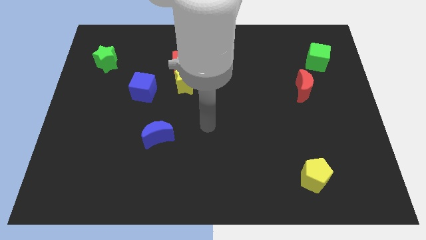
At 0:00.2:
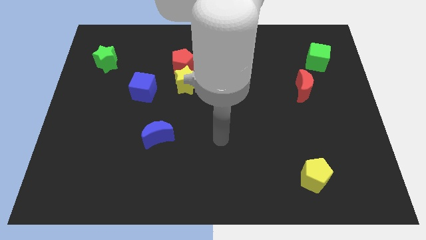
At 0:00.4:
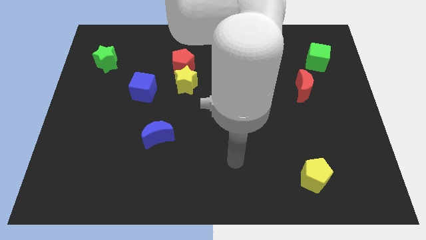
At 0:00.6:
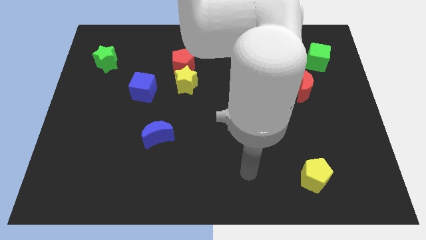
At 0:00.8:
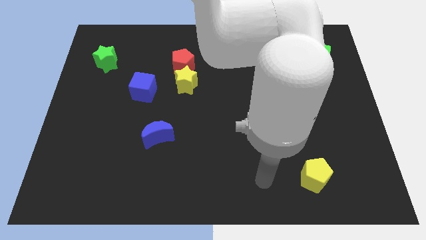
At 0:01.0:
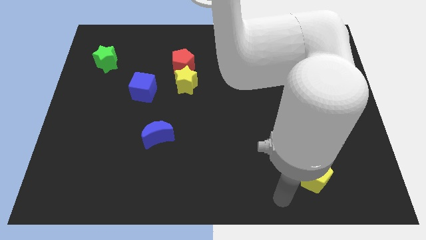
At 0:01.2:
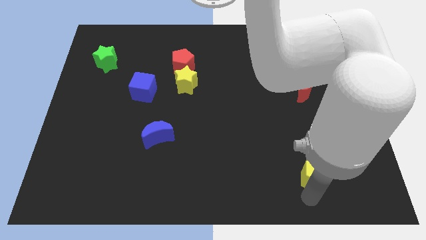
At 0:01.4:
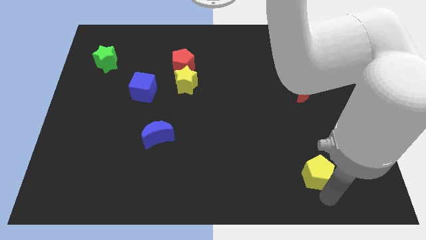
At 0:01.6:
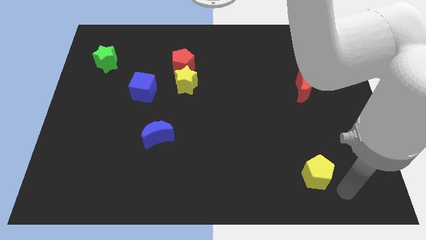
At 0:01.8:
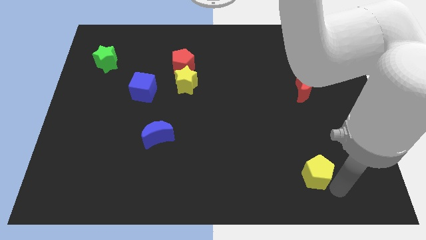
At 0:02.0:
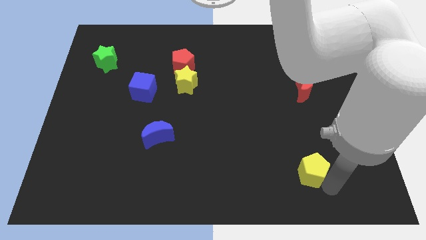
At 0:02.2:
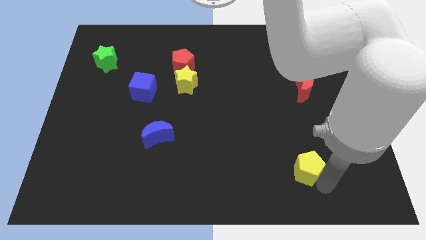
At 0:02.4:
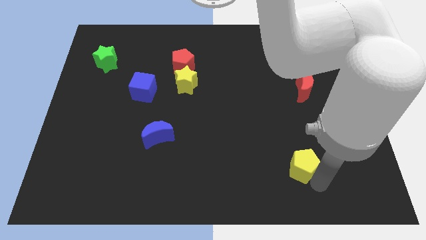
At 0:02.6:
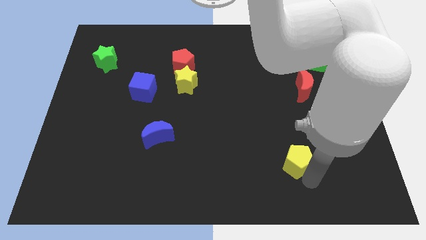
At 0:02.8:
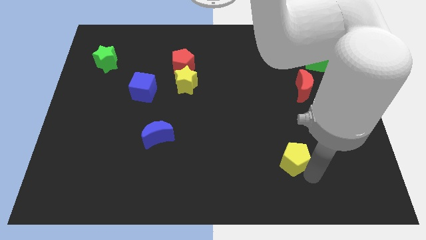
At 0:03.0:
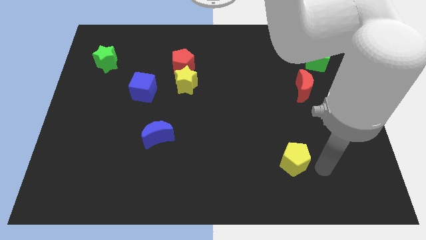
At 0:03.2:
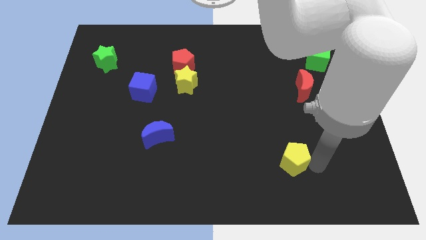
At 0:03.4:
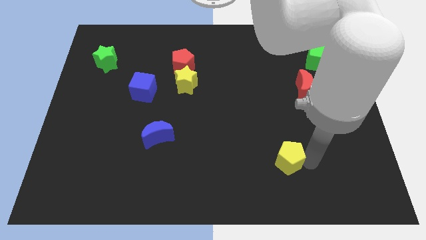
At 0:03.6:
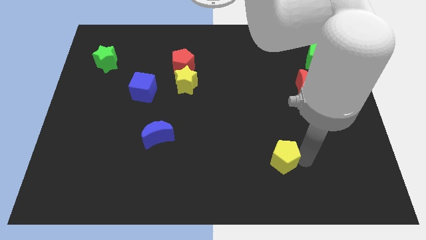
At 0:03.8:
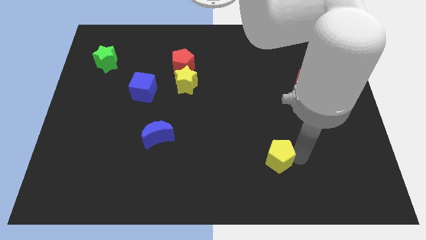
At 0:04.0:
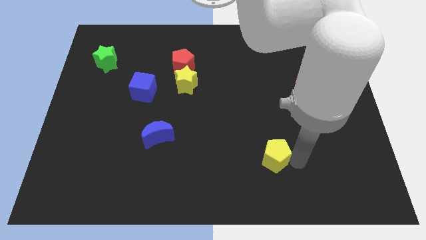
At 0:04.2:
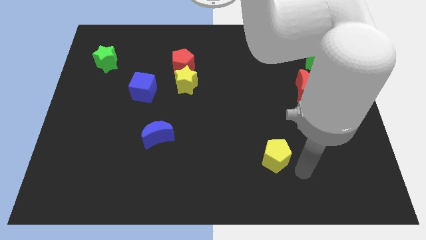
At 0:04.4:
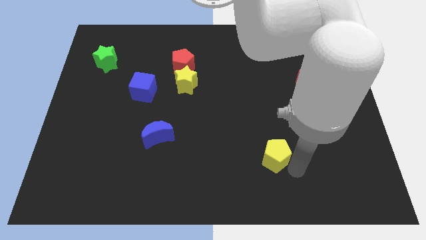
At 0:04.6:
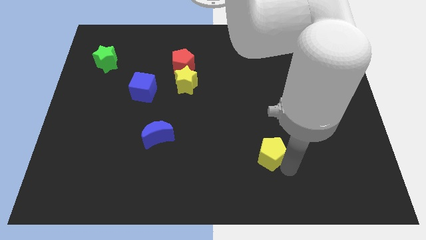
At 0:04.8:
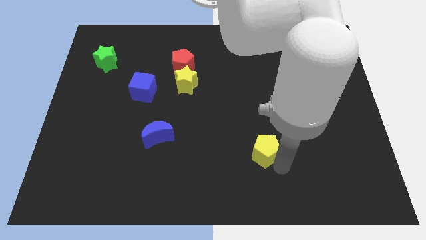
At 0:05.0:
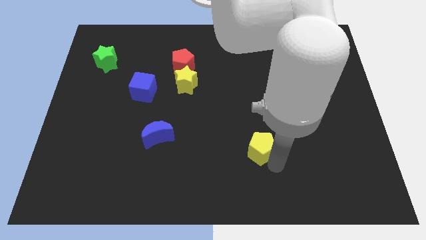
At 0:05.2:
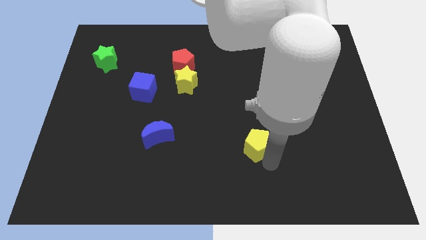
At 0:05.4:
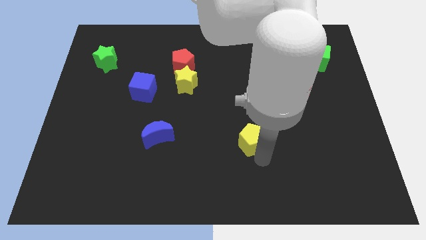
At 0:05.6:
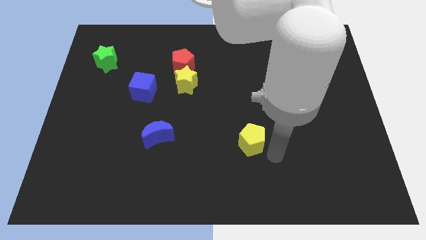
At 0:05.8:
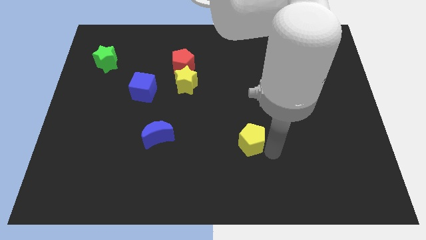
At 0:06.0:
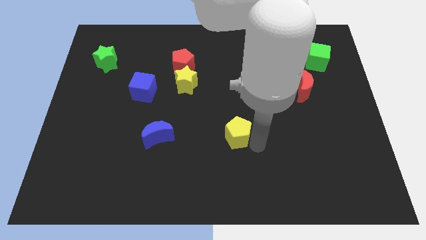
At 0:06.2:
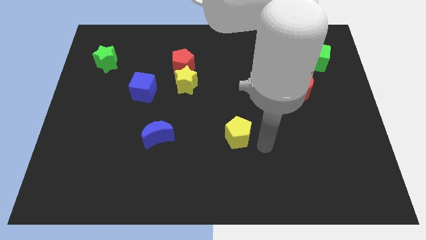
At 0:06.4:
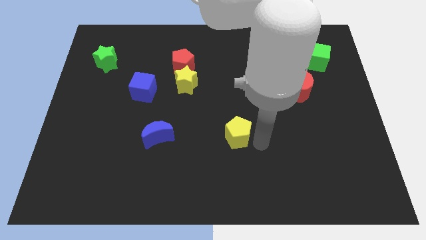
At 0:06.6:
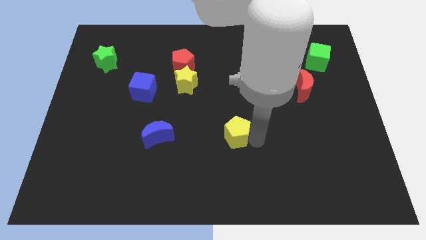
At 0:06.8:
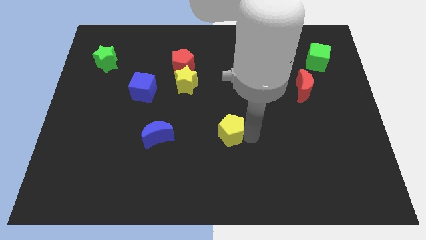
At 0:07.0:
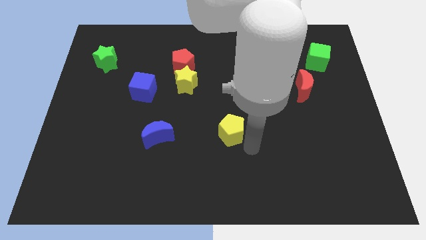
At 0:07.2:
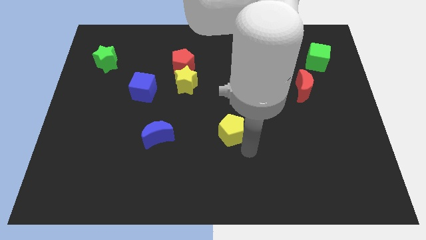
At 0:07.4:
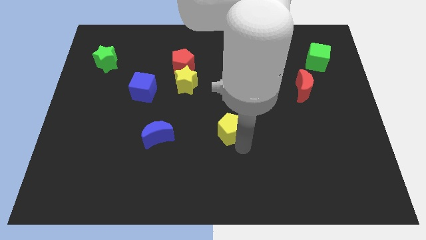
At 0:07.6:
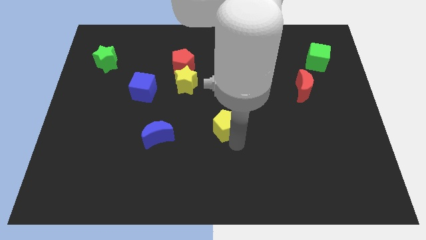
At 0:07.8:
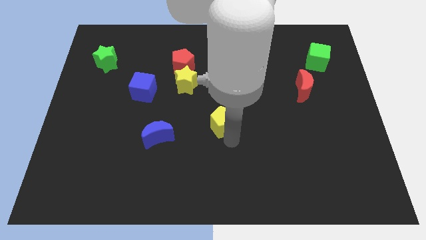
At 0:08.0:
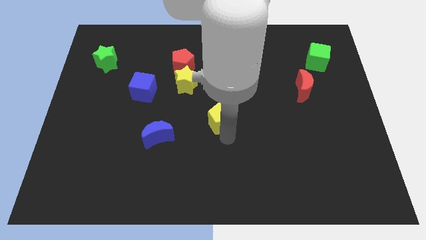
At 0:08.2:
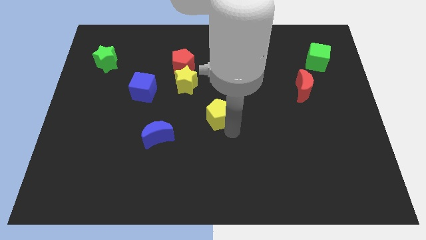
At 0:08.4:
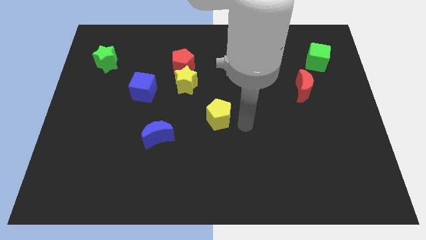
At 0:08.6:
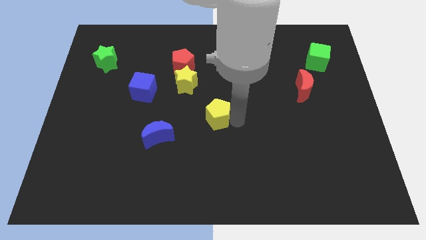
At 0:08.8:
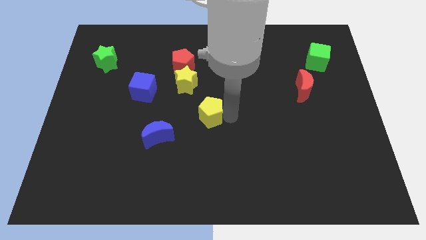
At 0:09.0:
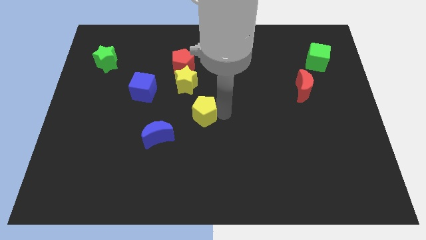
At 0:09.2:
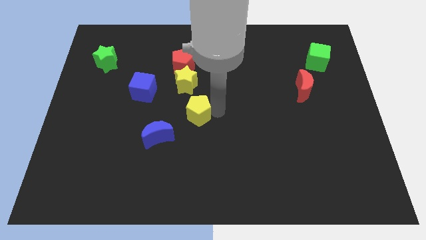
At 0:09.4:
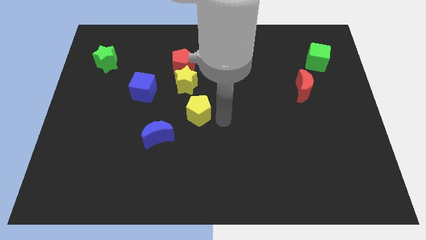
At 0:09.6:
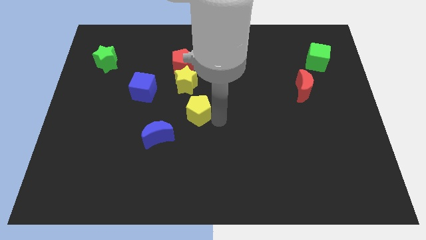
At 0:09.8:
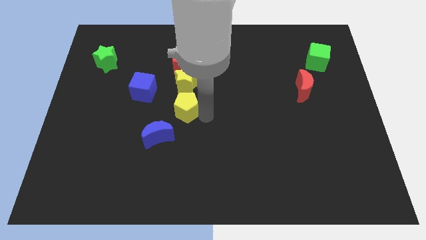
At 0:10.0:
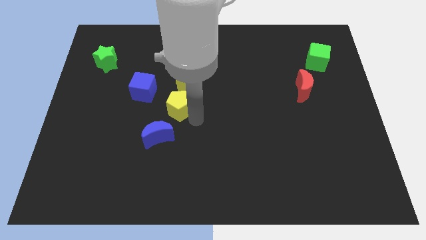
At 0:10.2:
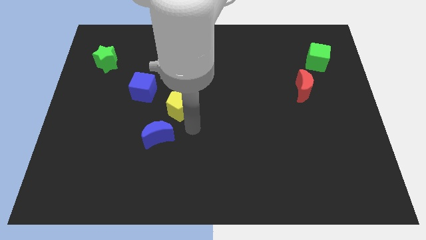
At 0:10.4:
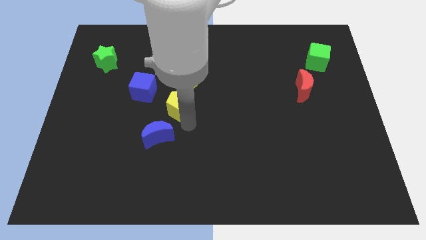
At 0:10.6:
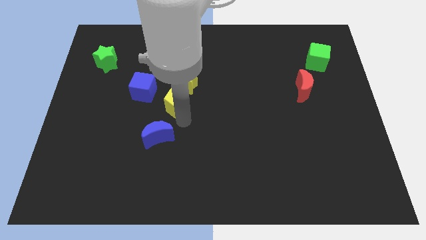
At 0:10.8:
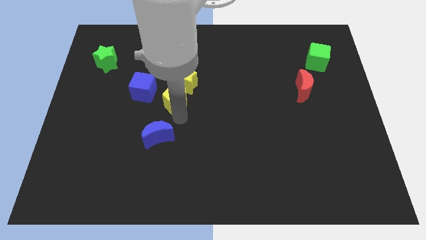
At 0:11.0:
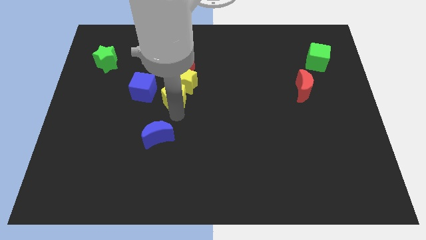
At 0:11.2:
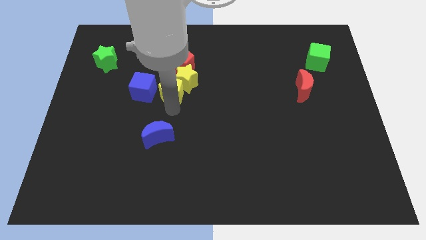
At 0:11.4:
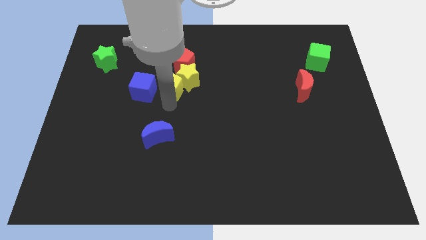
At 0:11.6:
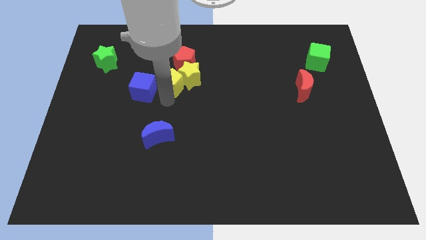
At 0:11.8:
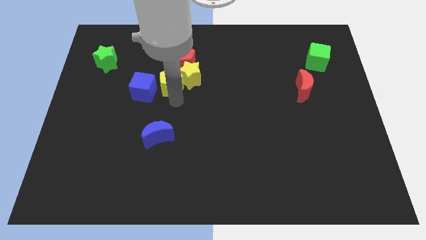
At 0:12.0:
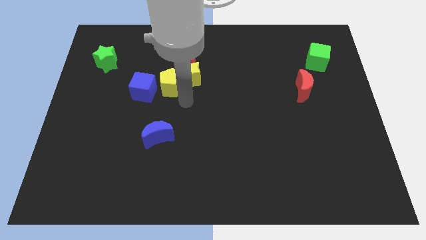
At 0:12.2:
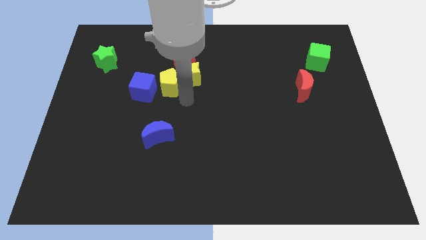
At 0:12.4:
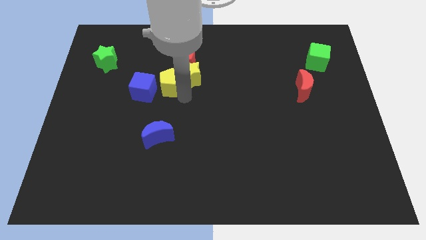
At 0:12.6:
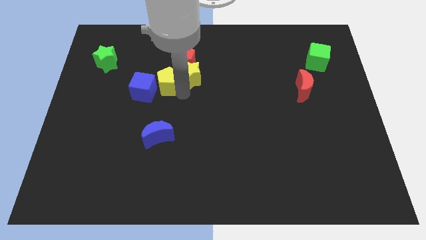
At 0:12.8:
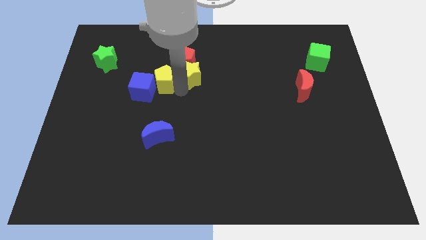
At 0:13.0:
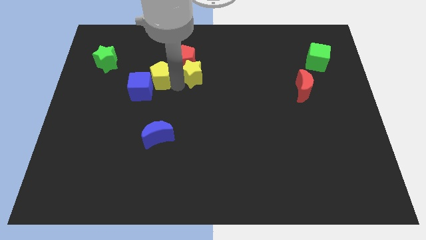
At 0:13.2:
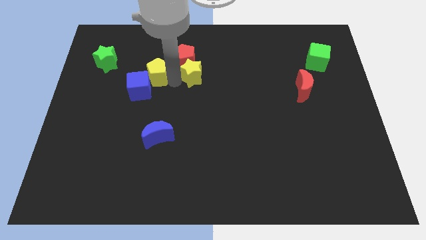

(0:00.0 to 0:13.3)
put the yellow pentagon left of the red pentagon
